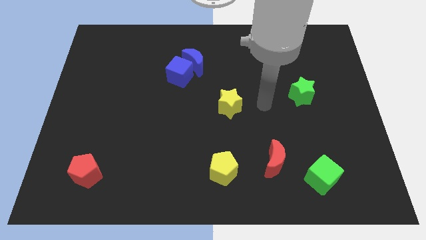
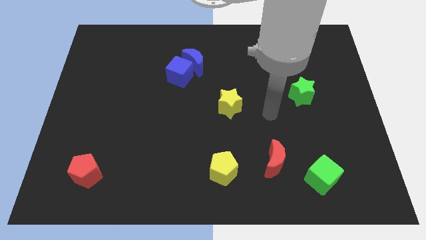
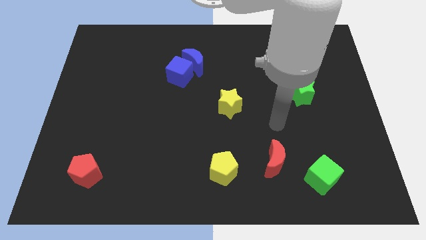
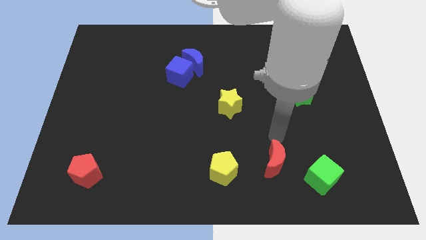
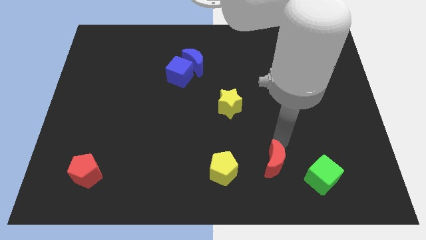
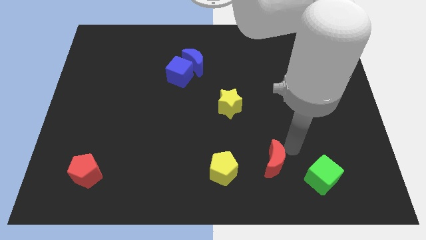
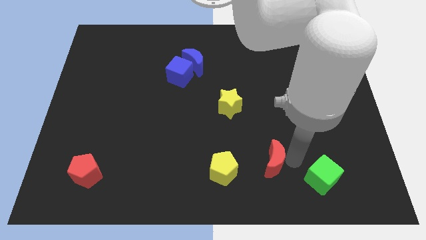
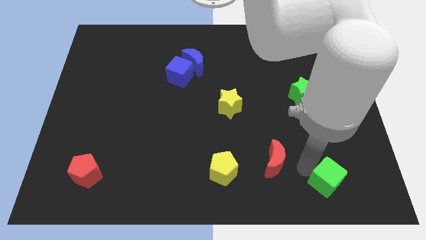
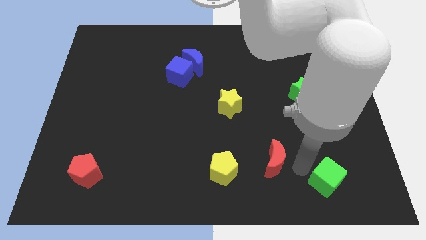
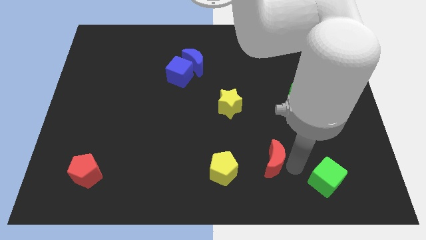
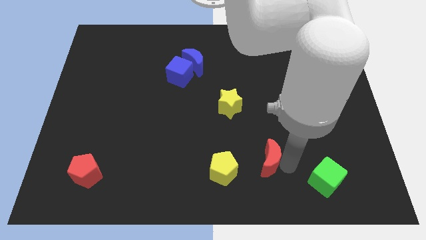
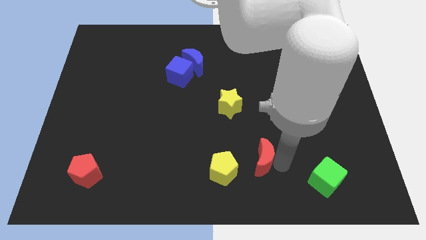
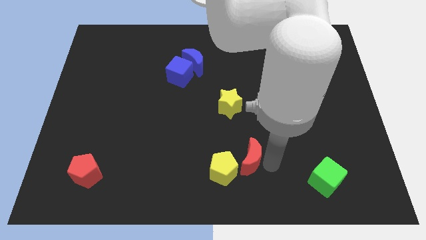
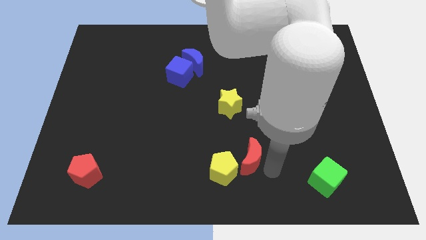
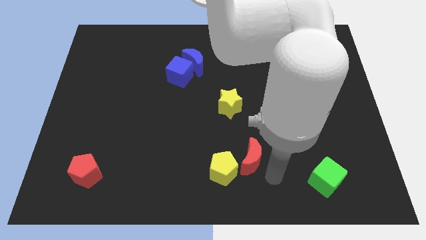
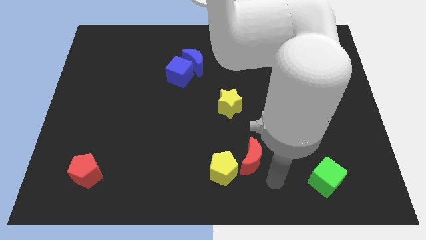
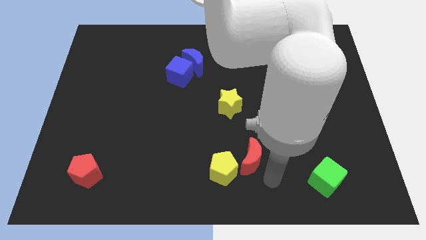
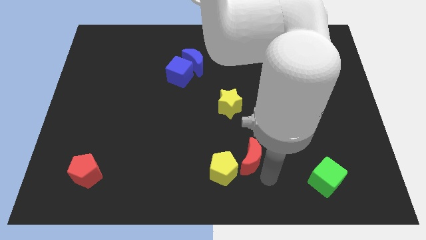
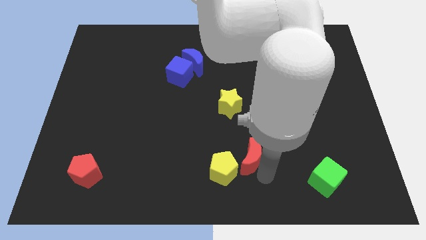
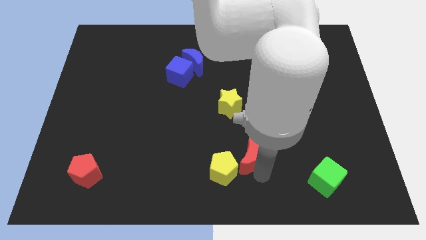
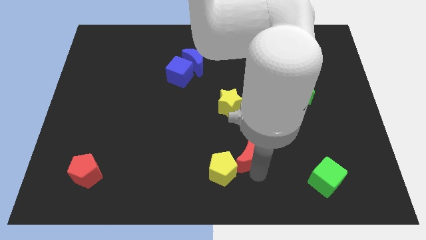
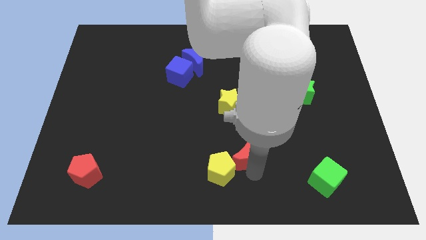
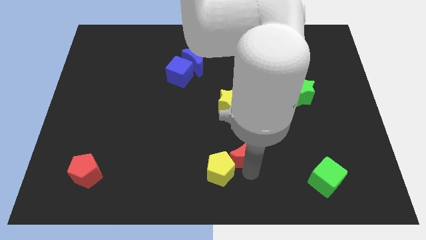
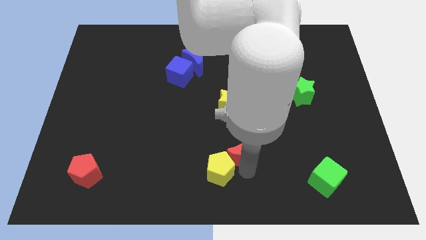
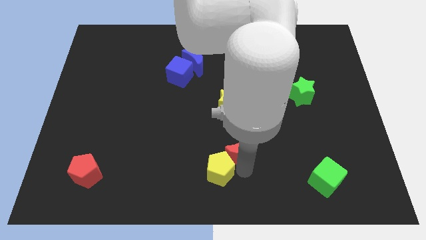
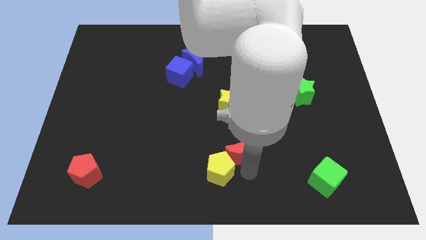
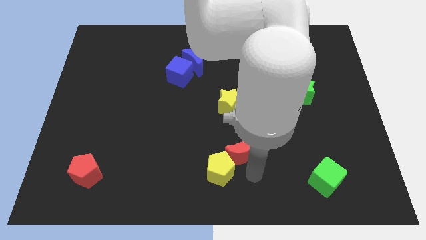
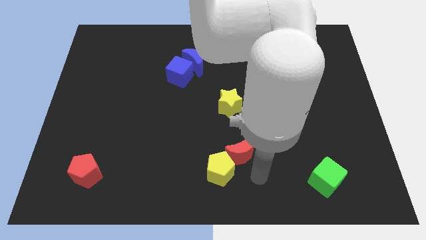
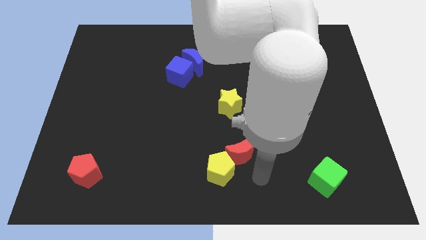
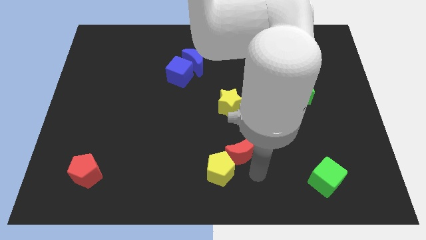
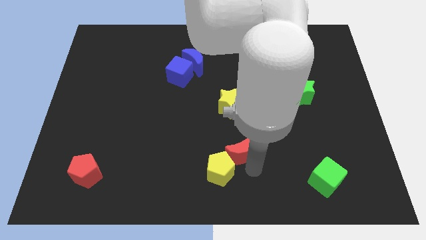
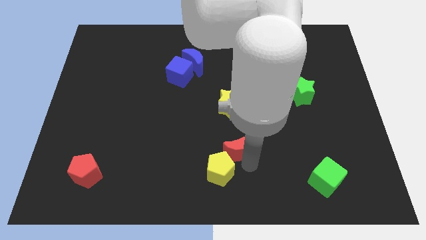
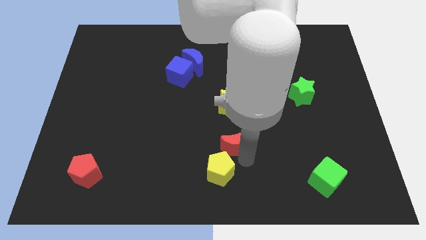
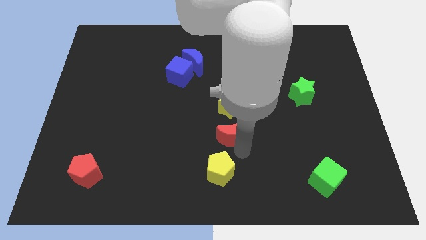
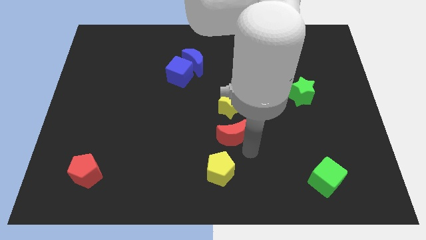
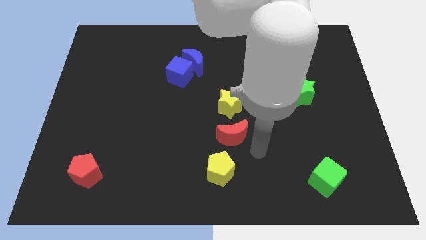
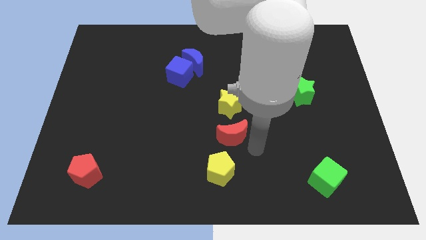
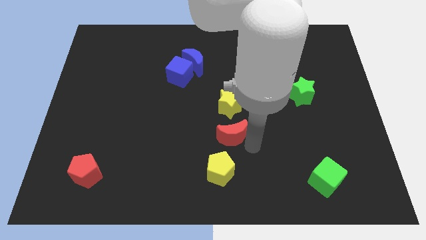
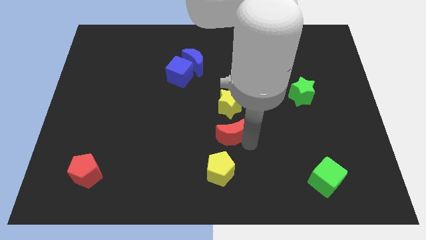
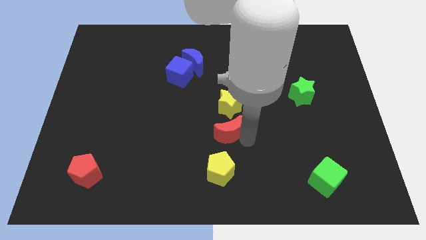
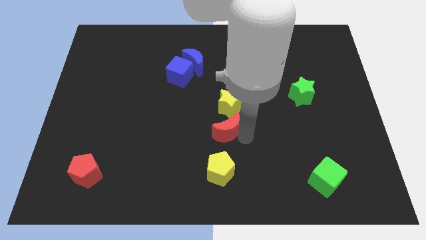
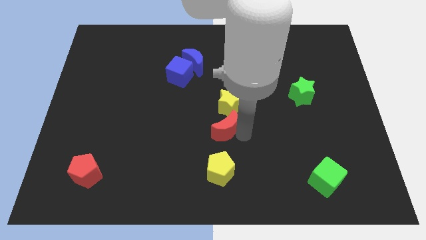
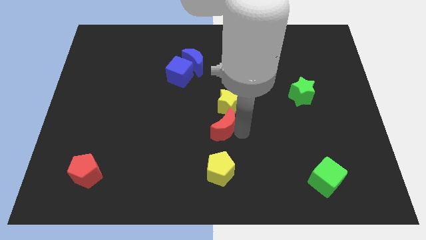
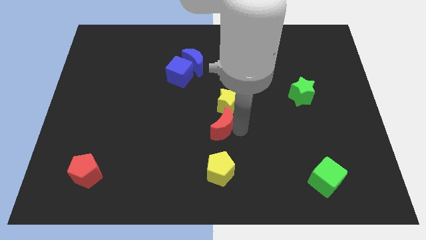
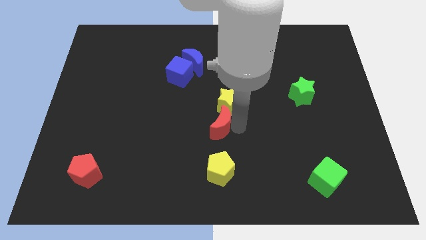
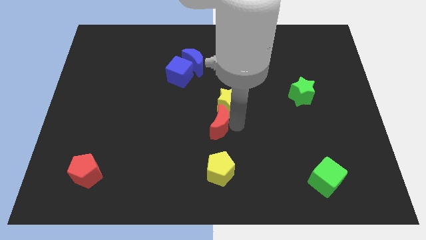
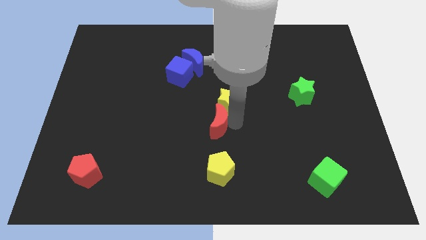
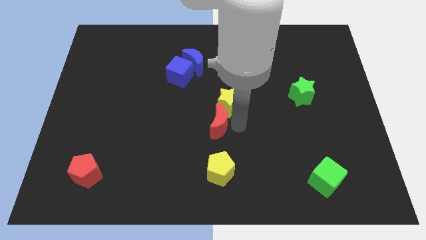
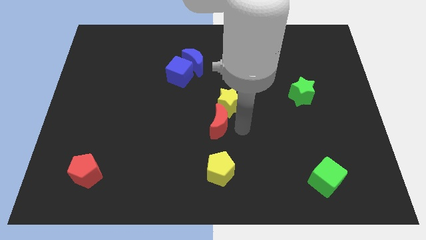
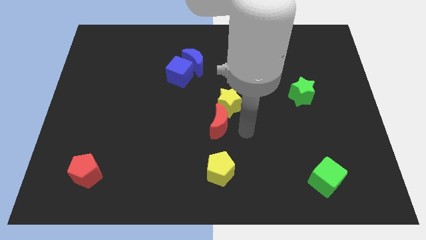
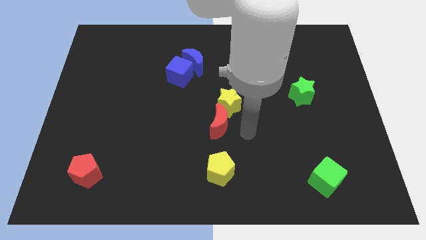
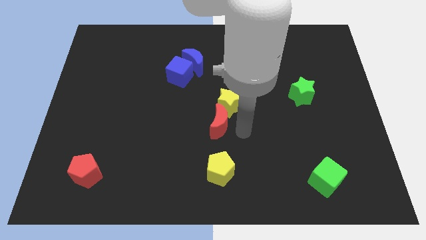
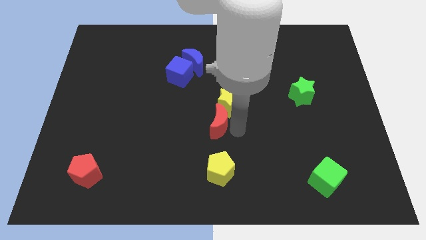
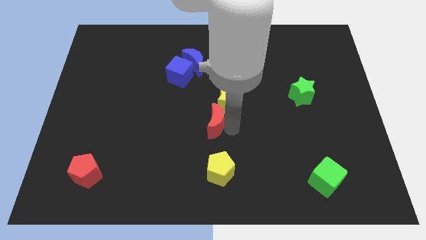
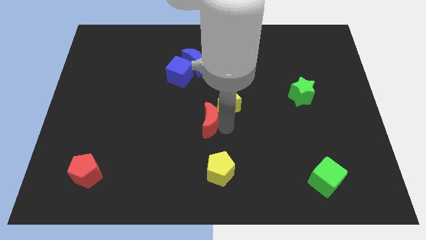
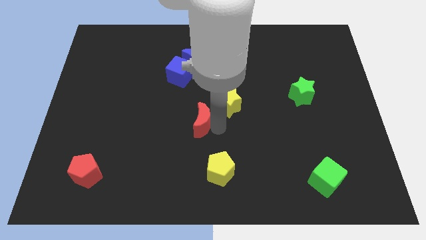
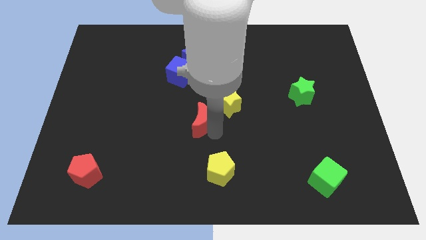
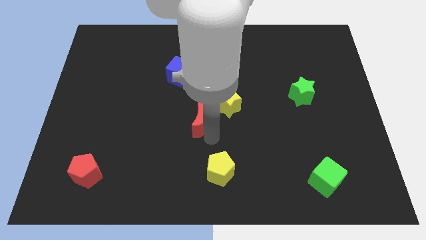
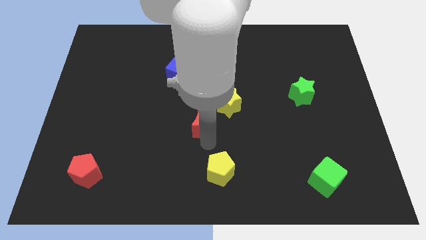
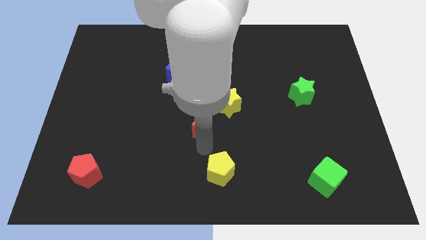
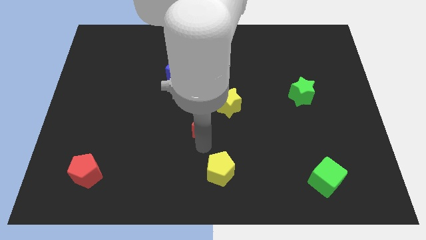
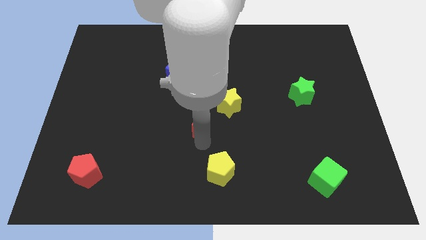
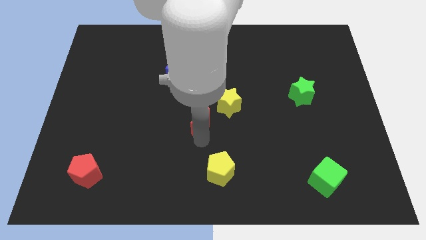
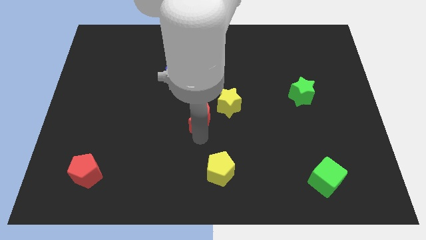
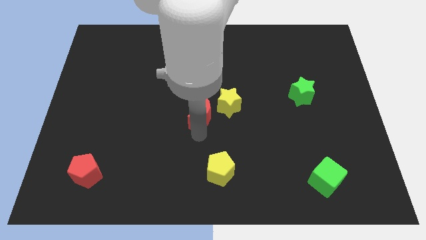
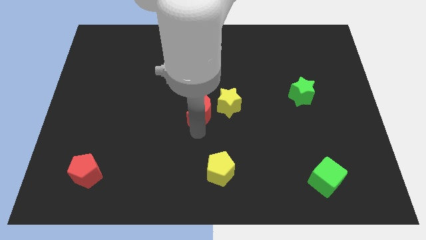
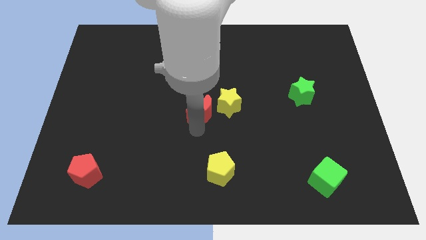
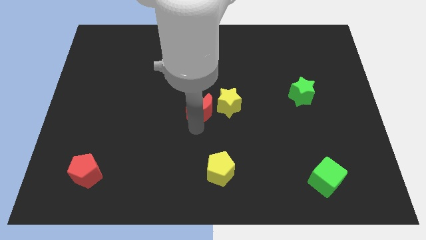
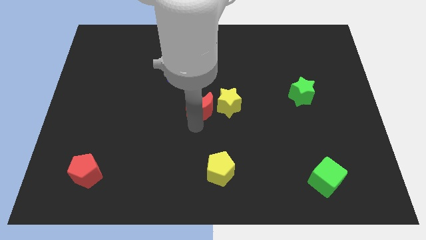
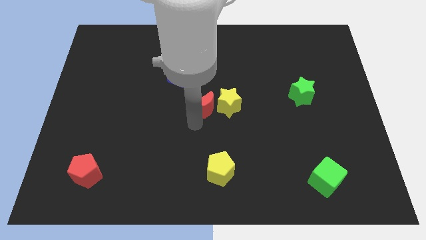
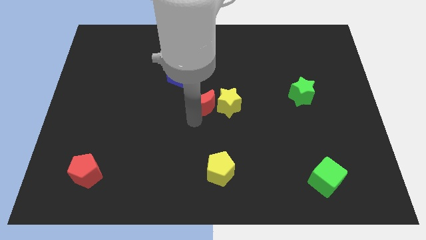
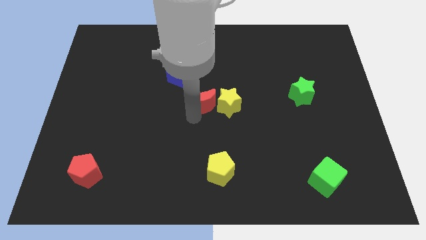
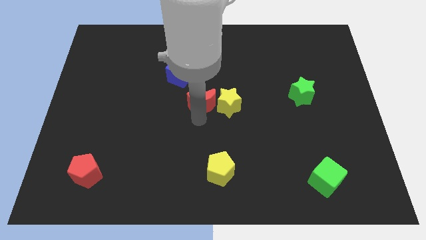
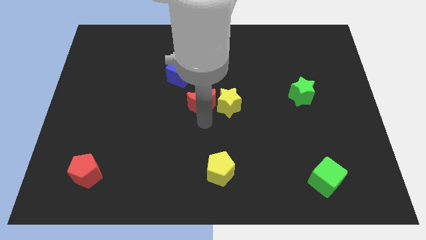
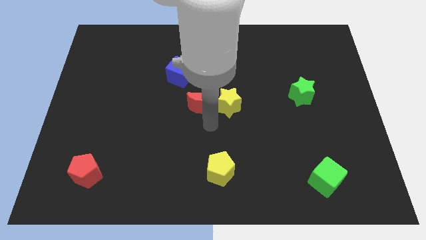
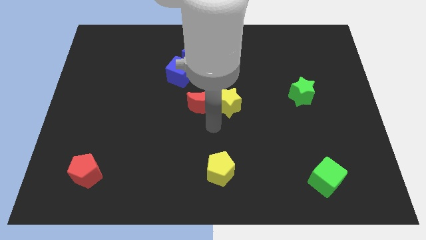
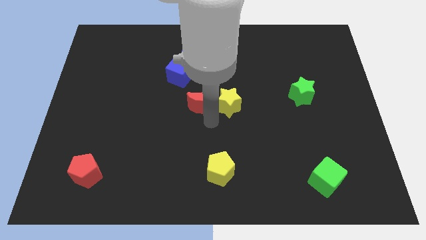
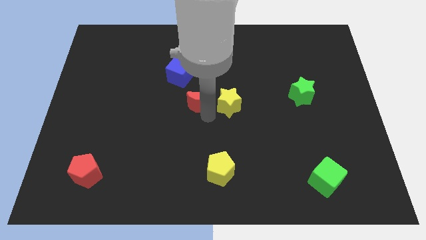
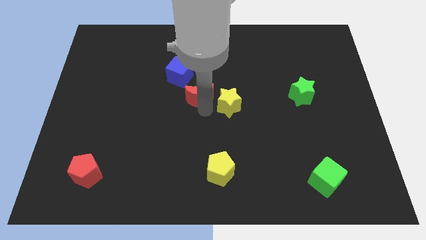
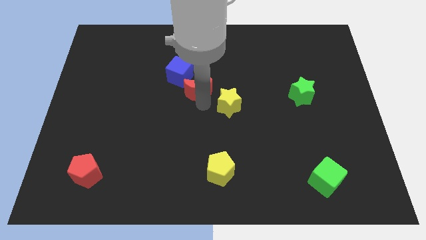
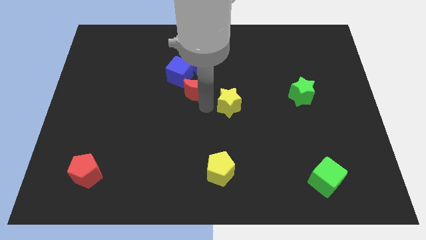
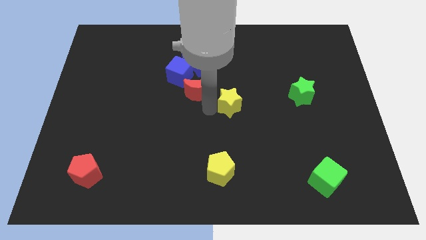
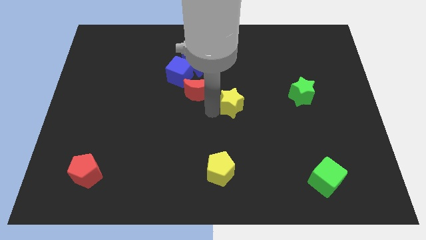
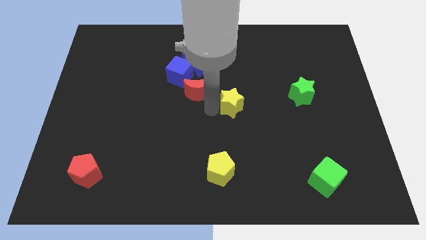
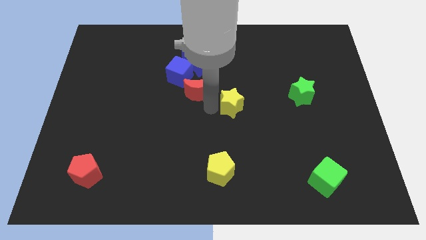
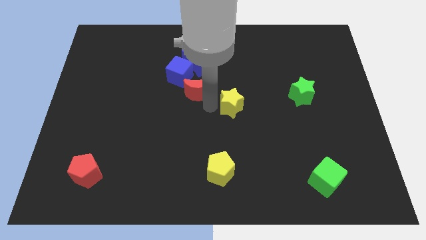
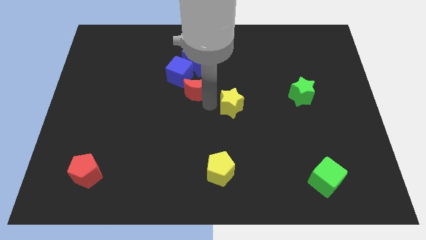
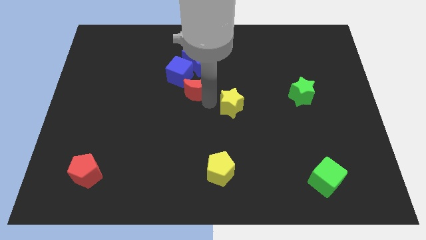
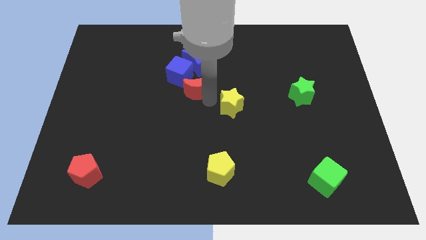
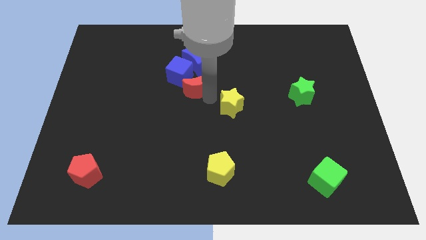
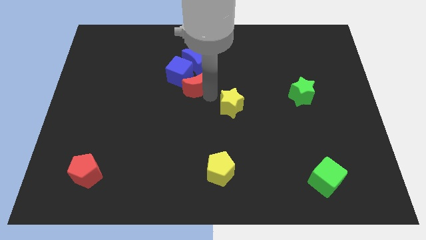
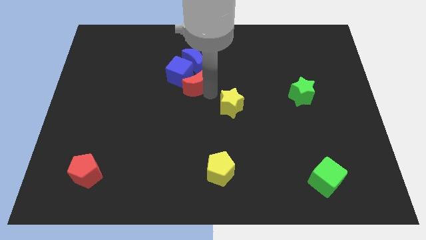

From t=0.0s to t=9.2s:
put the red moon close to the blue cube
